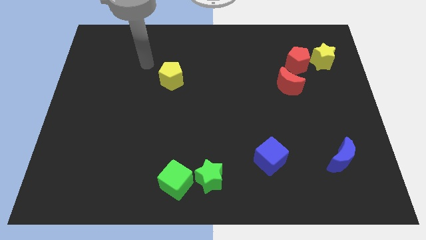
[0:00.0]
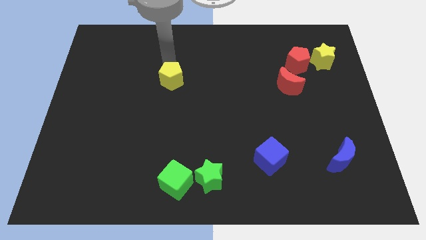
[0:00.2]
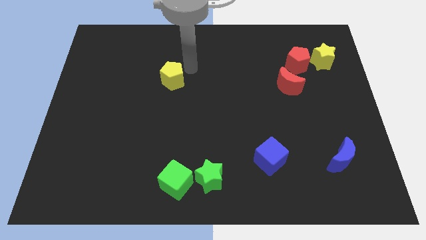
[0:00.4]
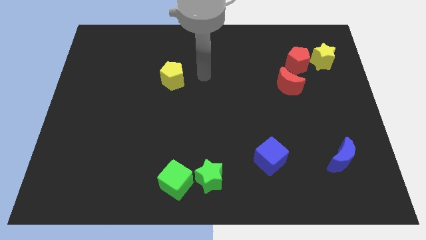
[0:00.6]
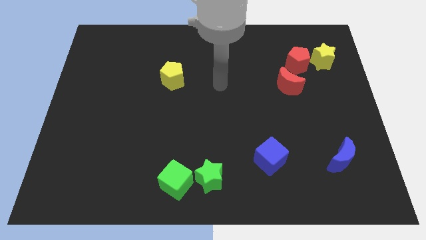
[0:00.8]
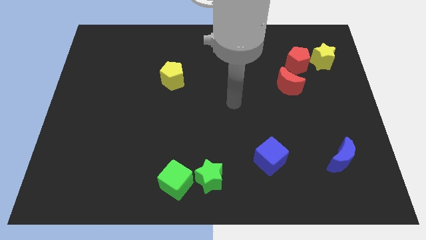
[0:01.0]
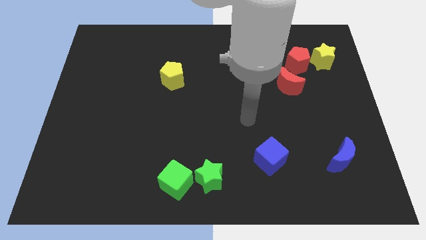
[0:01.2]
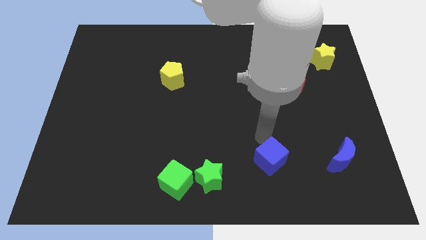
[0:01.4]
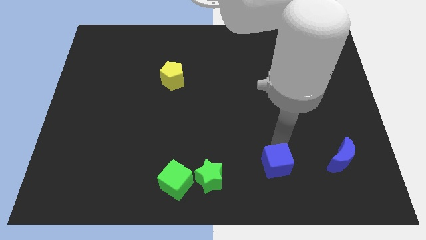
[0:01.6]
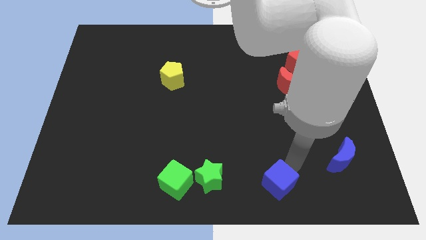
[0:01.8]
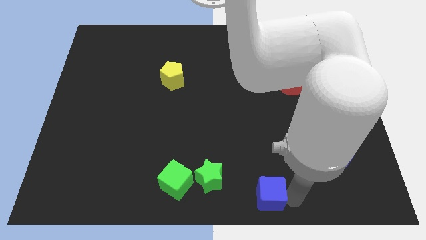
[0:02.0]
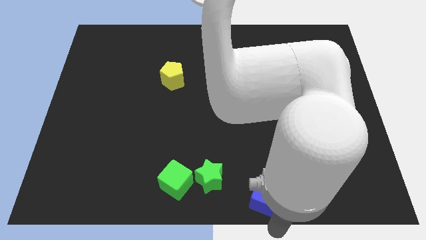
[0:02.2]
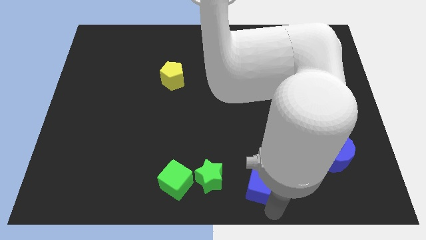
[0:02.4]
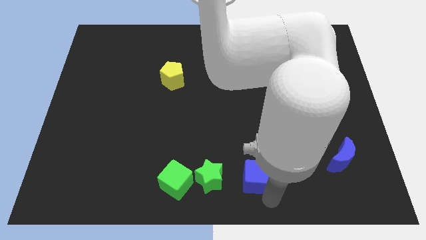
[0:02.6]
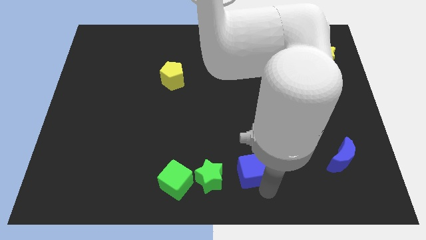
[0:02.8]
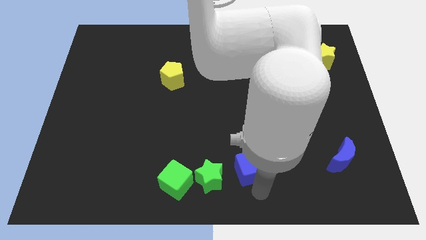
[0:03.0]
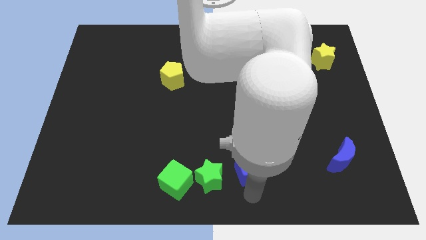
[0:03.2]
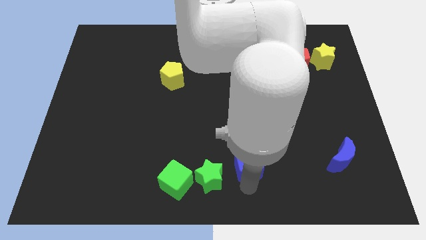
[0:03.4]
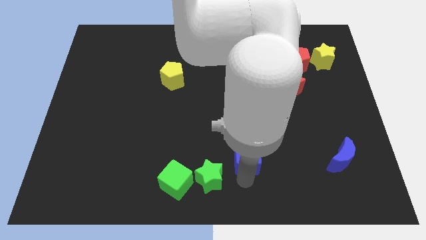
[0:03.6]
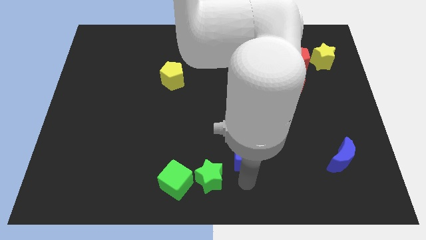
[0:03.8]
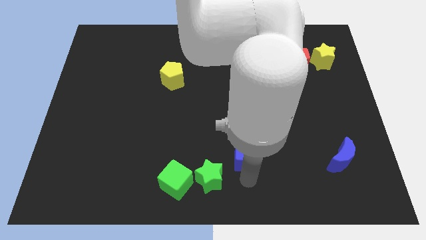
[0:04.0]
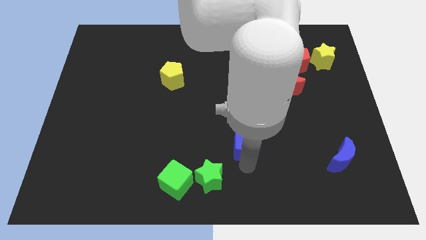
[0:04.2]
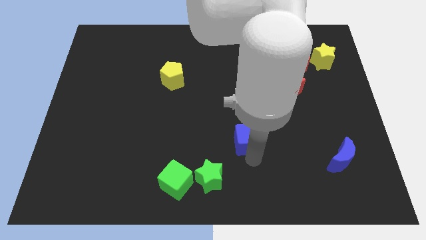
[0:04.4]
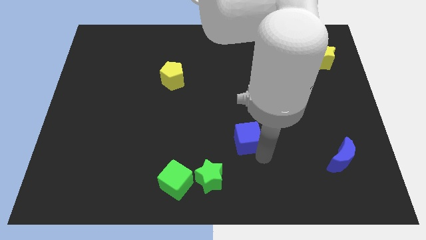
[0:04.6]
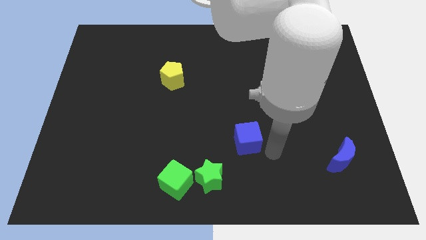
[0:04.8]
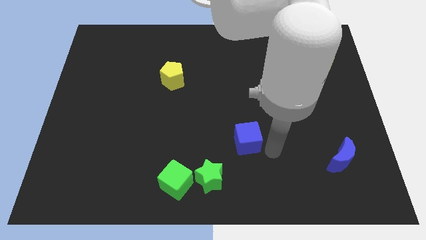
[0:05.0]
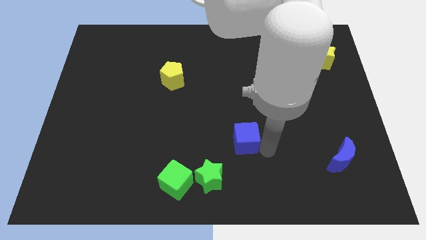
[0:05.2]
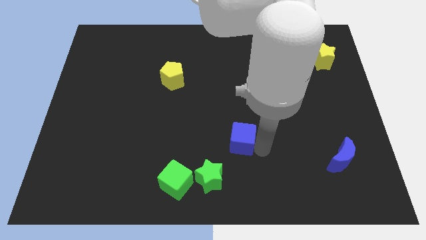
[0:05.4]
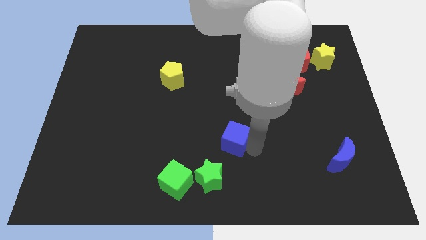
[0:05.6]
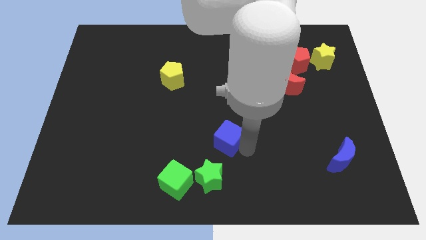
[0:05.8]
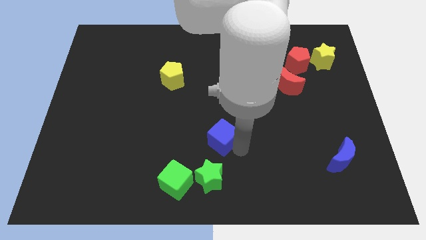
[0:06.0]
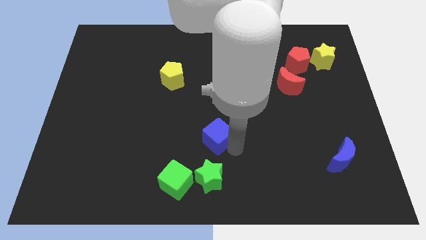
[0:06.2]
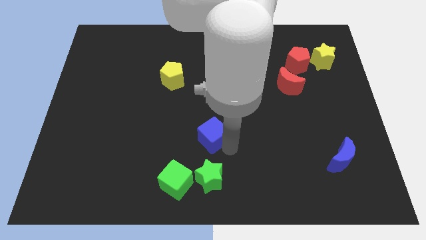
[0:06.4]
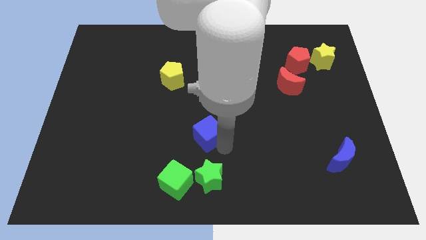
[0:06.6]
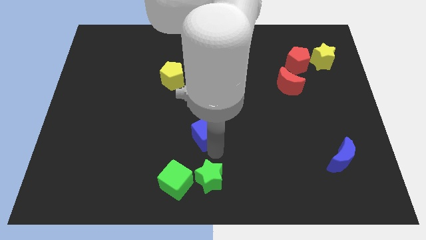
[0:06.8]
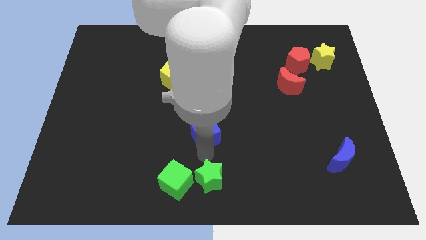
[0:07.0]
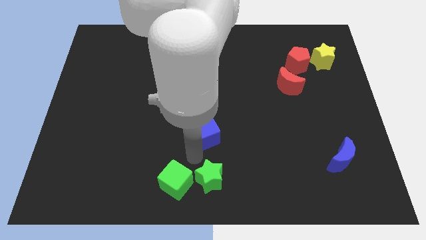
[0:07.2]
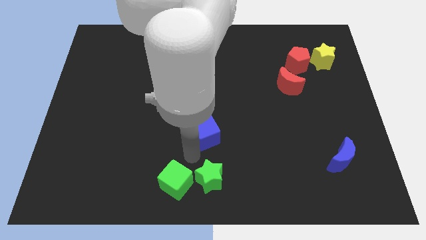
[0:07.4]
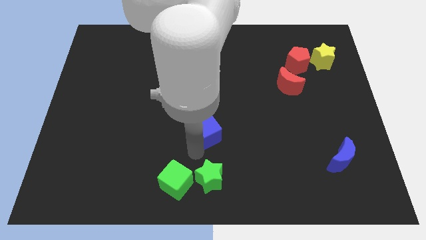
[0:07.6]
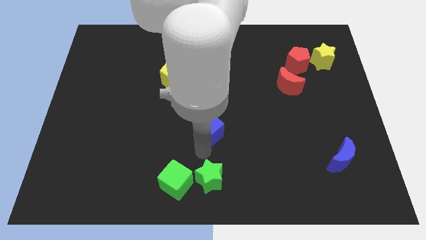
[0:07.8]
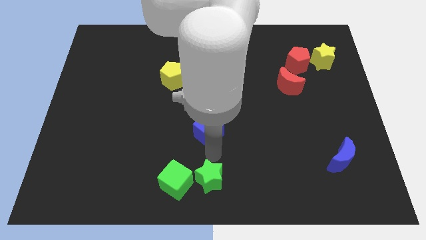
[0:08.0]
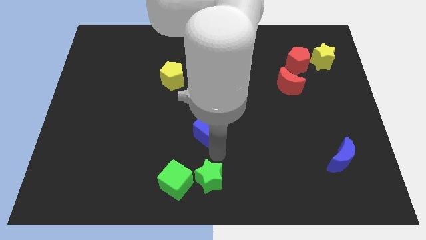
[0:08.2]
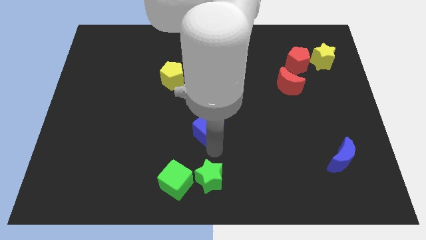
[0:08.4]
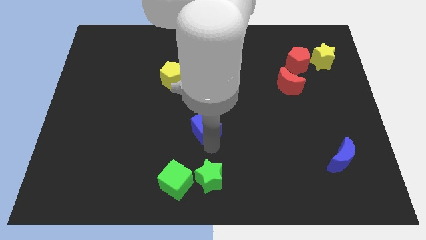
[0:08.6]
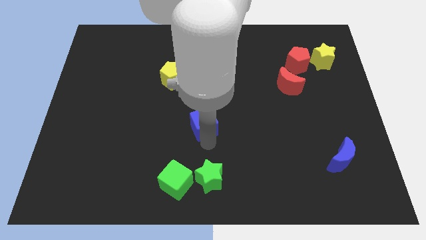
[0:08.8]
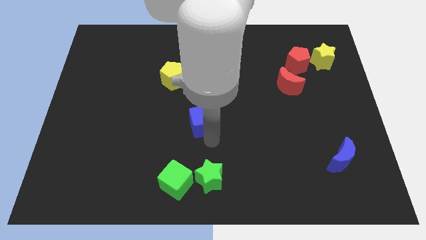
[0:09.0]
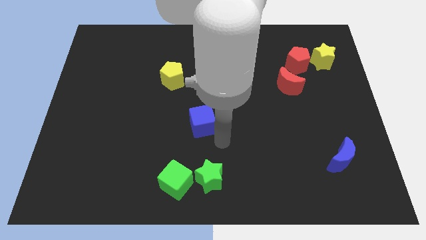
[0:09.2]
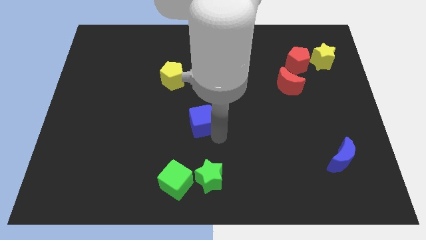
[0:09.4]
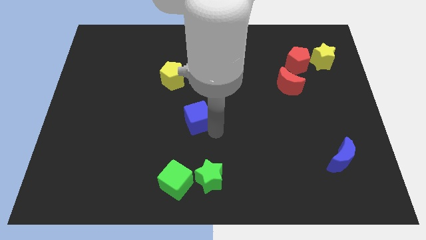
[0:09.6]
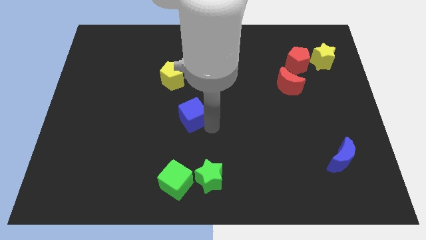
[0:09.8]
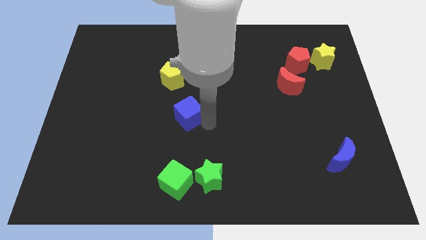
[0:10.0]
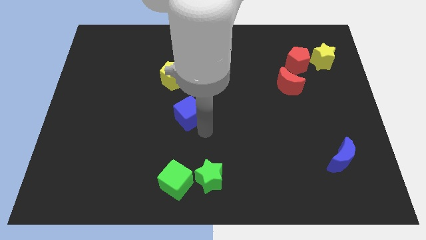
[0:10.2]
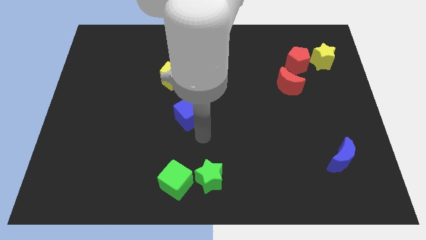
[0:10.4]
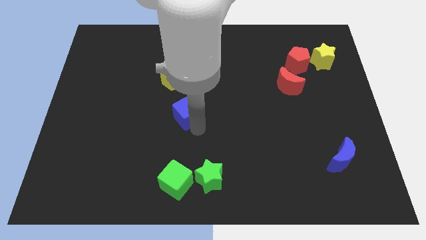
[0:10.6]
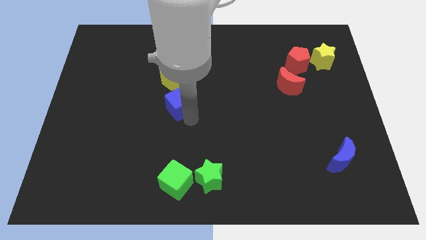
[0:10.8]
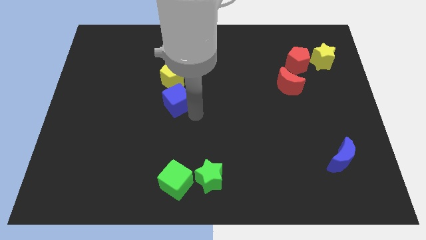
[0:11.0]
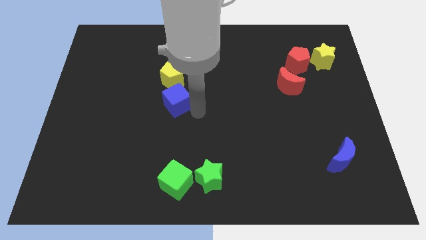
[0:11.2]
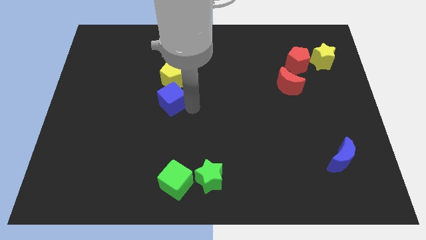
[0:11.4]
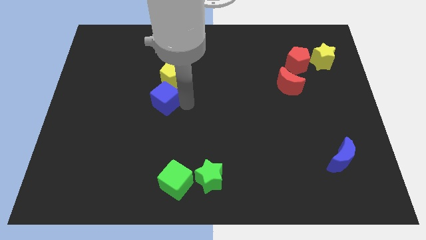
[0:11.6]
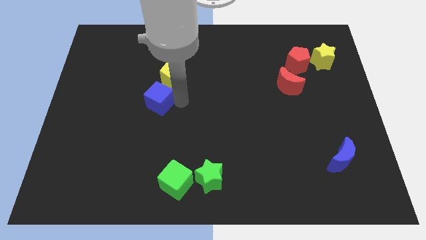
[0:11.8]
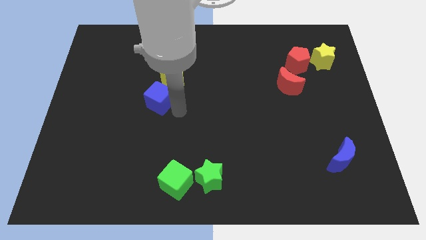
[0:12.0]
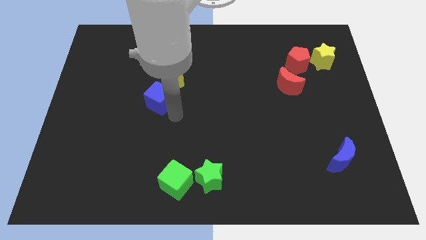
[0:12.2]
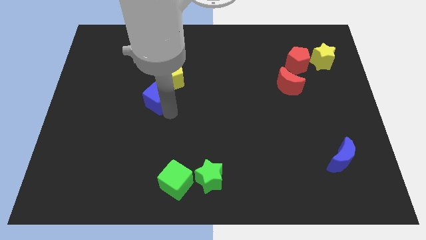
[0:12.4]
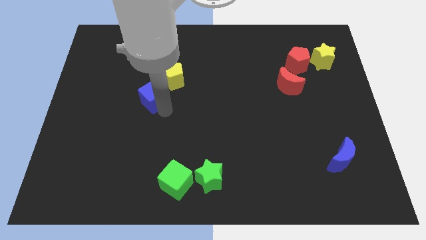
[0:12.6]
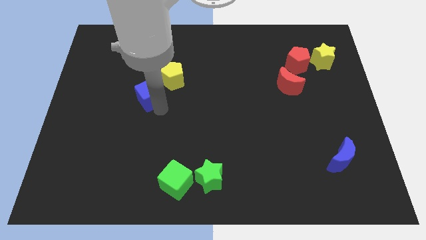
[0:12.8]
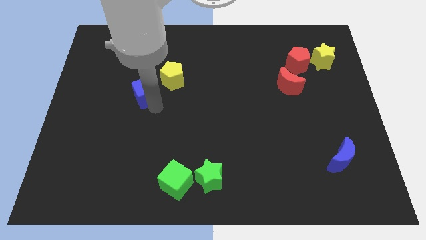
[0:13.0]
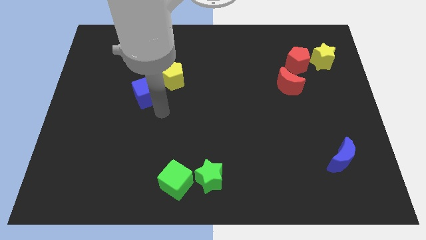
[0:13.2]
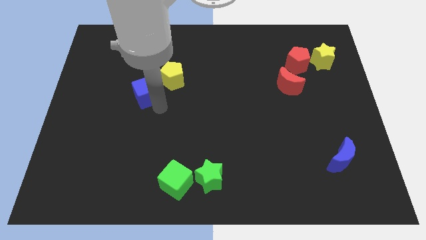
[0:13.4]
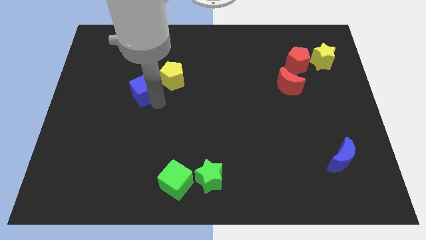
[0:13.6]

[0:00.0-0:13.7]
push the blue cube just left of the yellow pentagon
